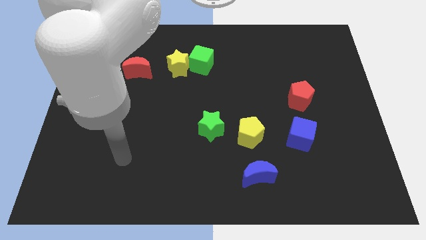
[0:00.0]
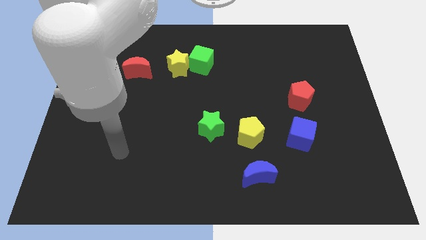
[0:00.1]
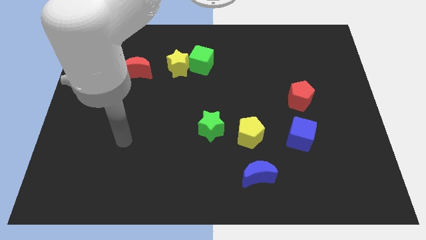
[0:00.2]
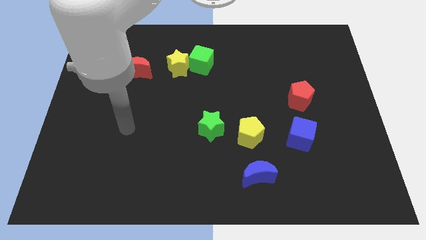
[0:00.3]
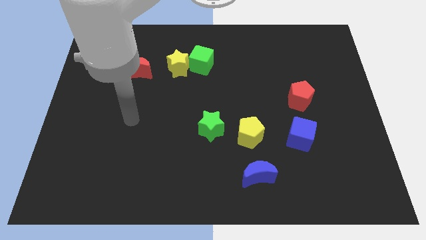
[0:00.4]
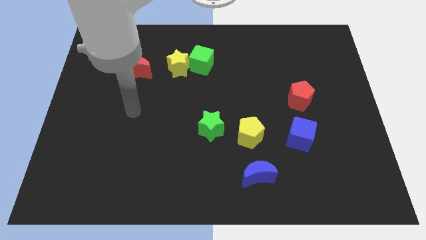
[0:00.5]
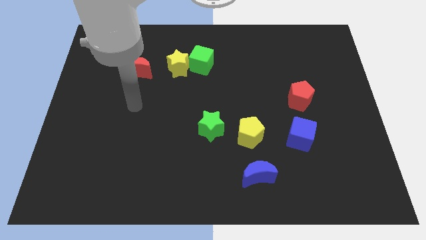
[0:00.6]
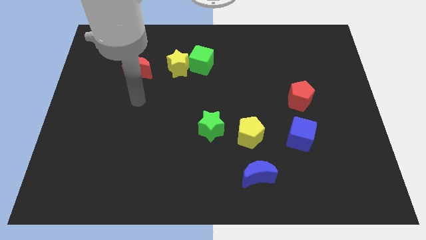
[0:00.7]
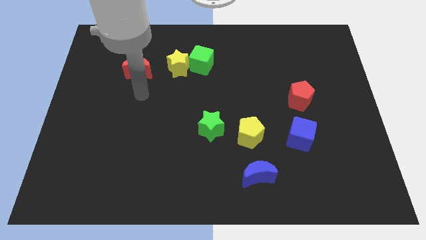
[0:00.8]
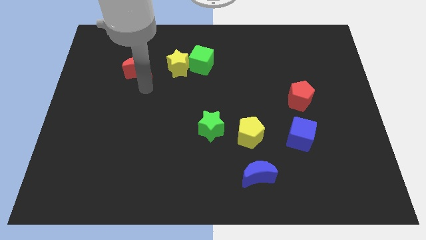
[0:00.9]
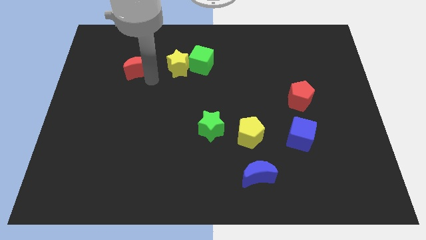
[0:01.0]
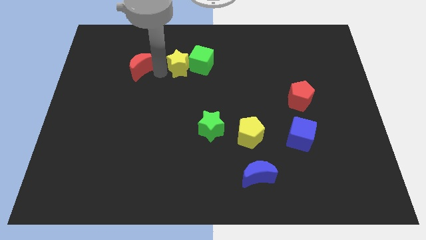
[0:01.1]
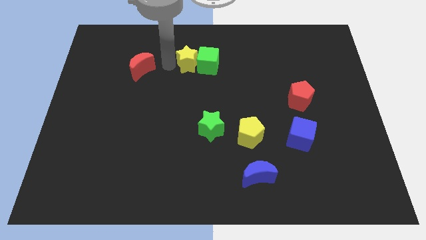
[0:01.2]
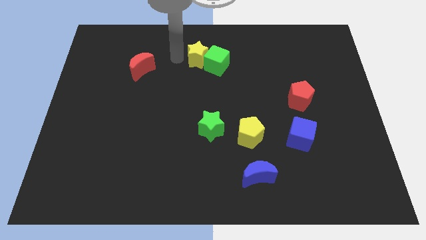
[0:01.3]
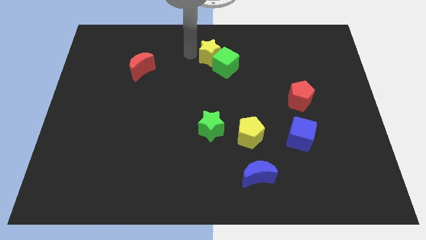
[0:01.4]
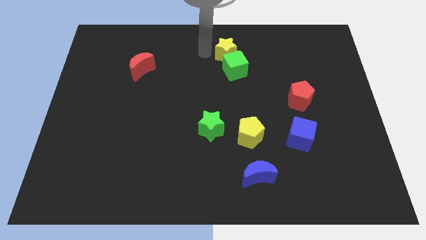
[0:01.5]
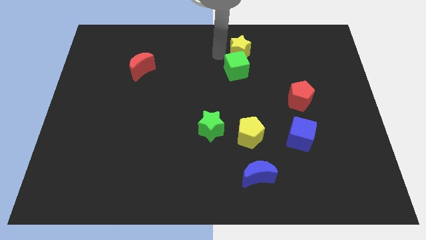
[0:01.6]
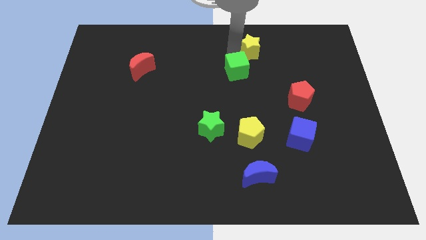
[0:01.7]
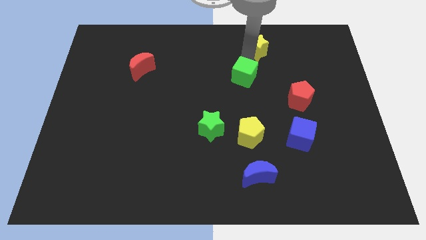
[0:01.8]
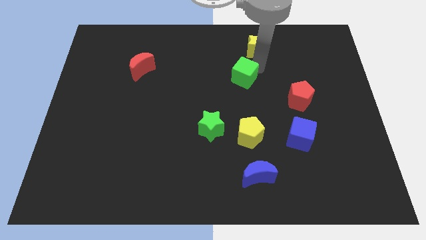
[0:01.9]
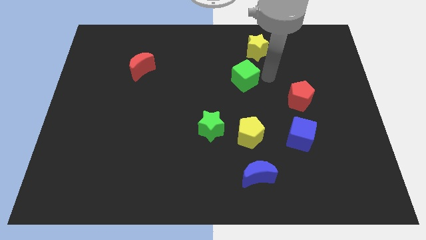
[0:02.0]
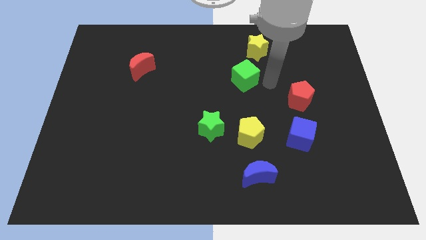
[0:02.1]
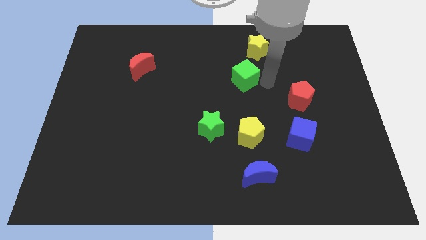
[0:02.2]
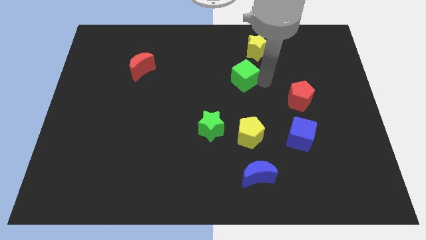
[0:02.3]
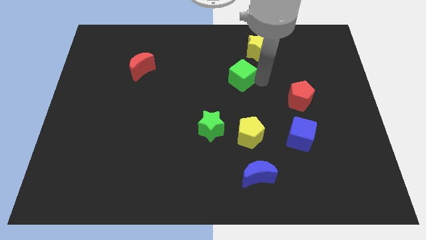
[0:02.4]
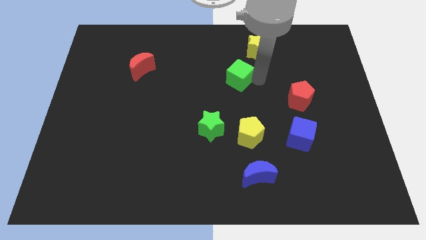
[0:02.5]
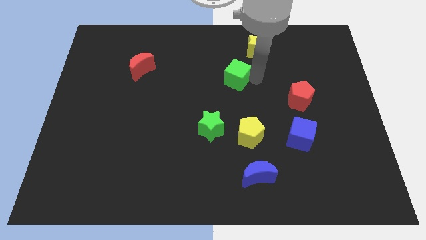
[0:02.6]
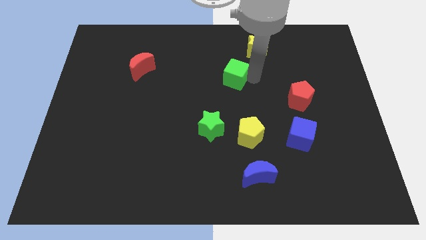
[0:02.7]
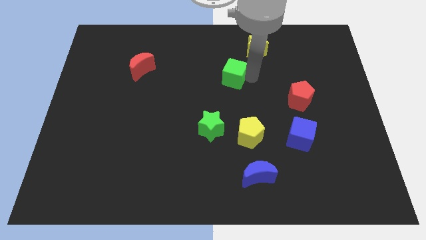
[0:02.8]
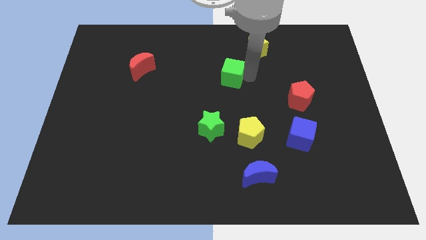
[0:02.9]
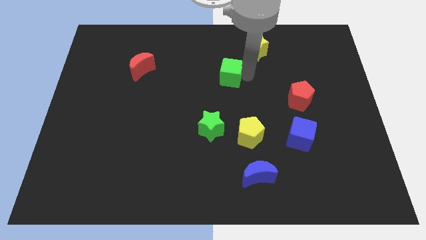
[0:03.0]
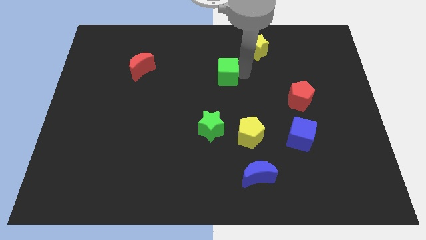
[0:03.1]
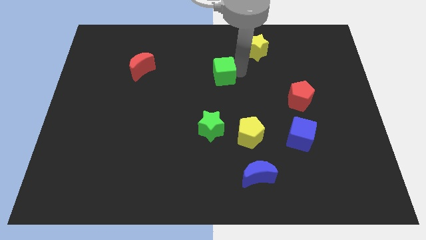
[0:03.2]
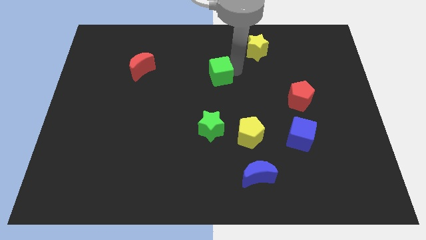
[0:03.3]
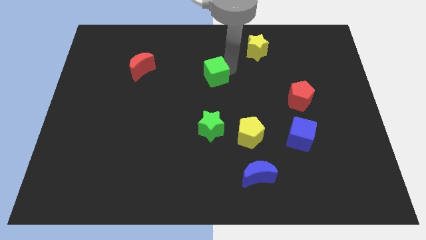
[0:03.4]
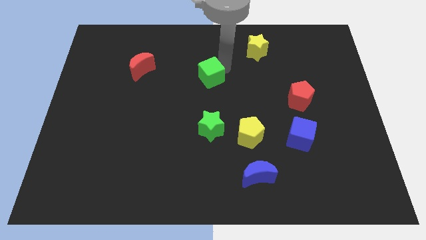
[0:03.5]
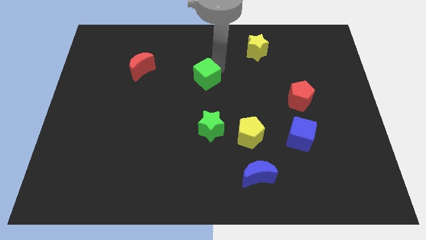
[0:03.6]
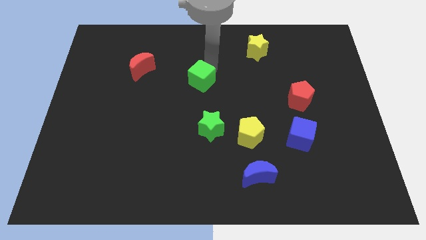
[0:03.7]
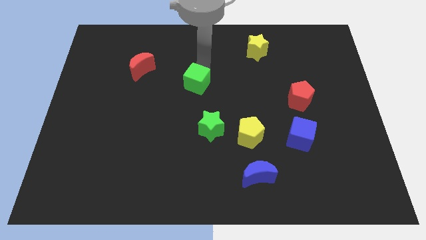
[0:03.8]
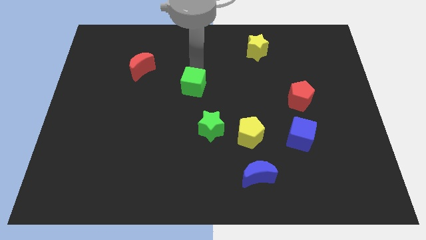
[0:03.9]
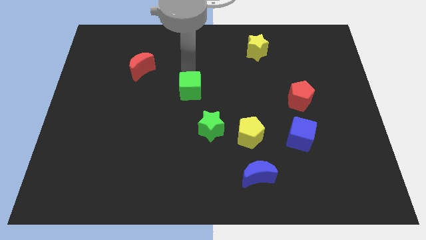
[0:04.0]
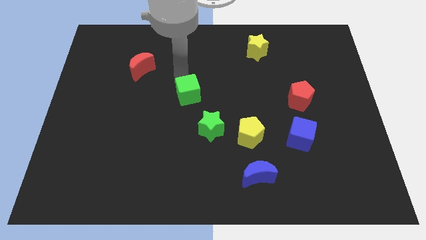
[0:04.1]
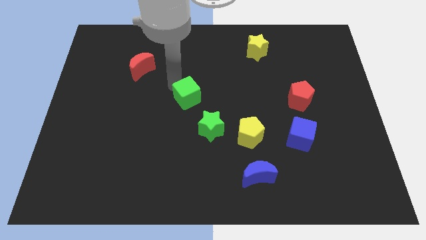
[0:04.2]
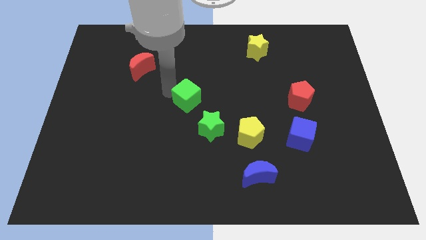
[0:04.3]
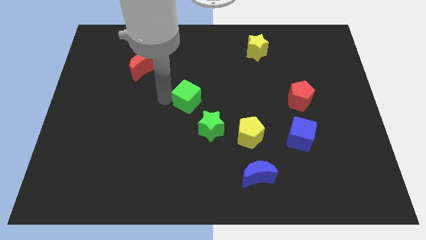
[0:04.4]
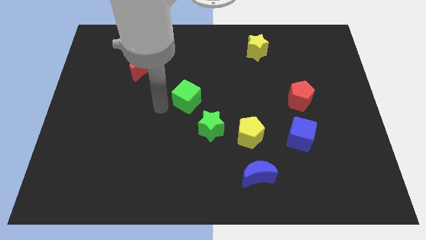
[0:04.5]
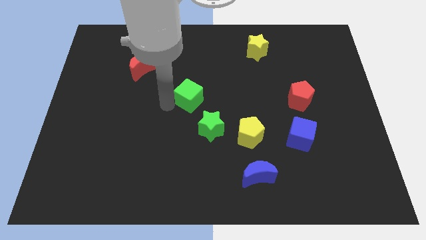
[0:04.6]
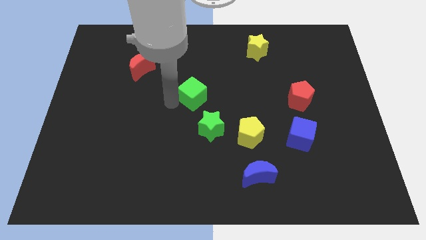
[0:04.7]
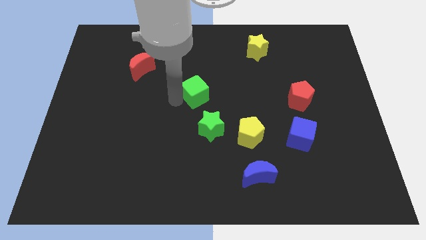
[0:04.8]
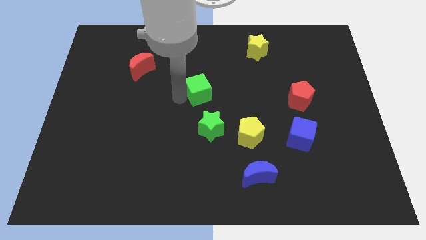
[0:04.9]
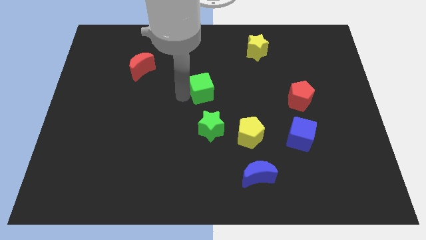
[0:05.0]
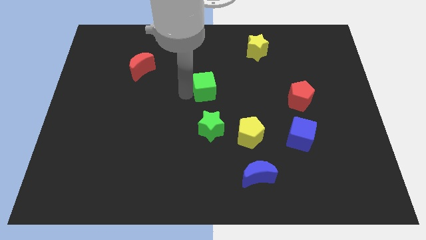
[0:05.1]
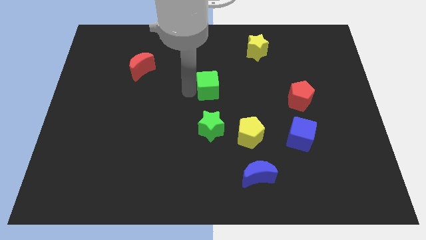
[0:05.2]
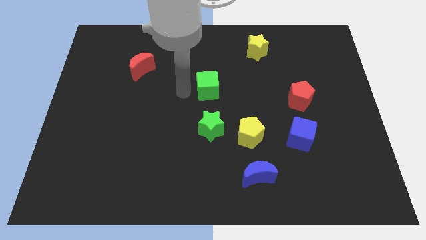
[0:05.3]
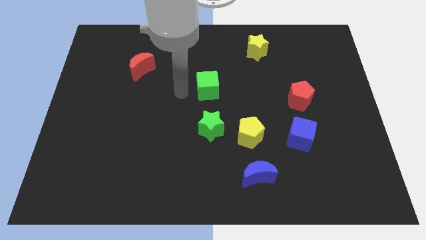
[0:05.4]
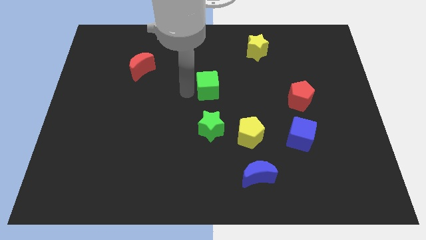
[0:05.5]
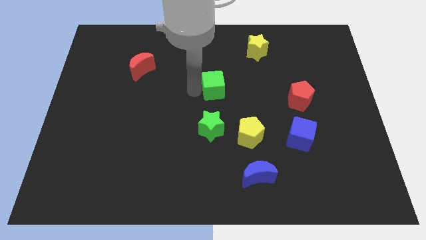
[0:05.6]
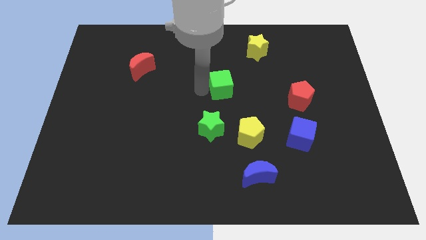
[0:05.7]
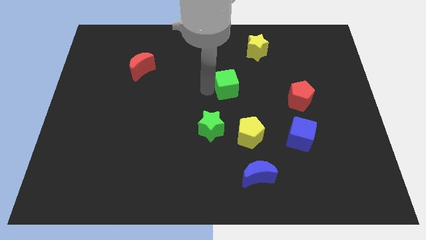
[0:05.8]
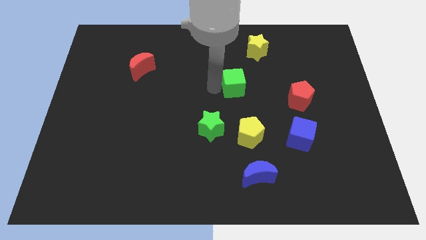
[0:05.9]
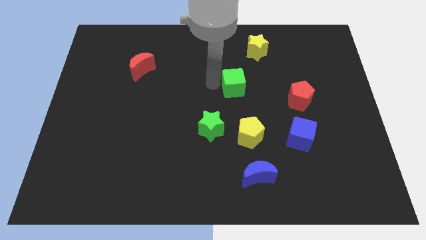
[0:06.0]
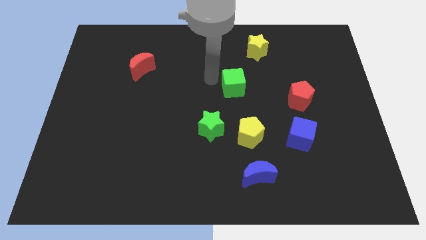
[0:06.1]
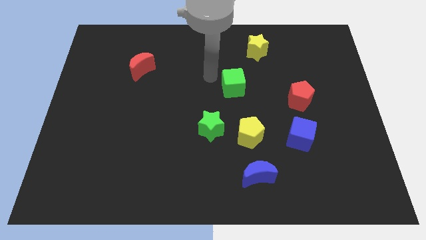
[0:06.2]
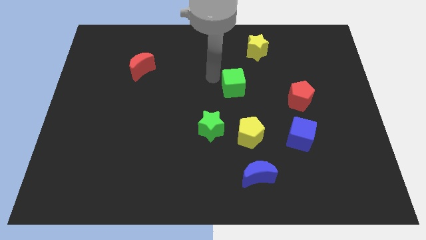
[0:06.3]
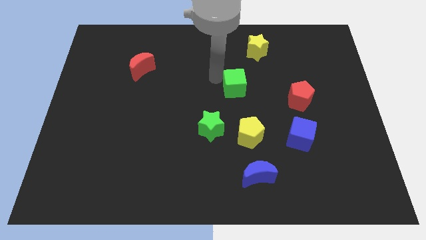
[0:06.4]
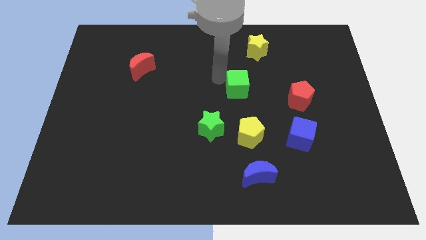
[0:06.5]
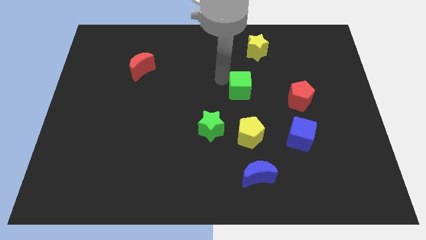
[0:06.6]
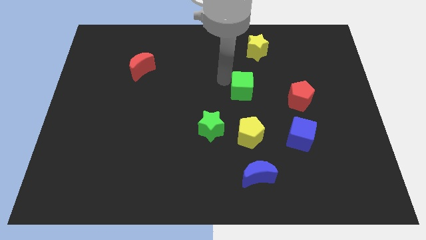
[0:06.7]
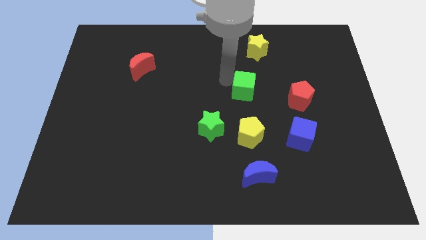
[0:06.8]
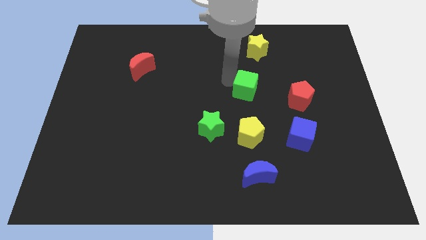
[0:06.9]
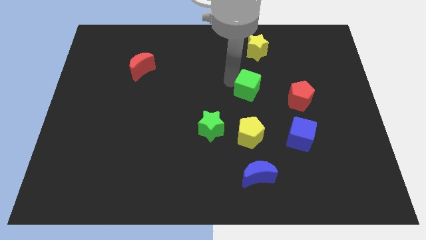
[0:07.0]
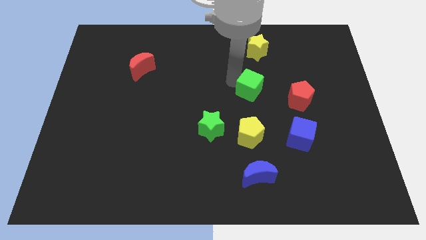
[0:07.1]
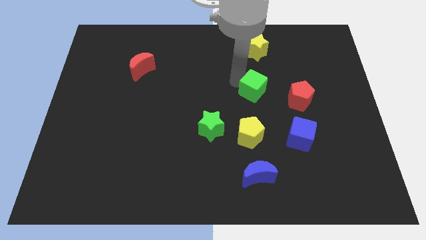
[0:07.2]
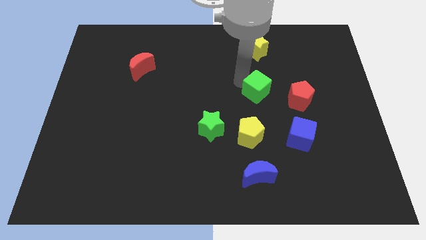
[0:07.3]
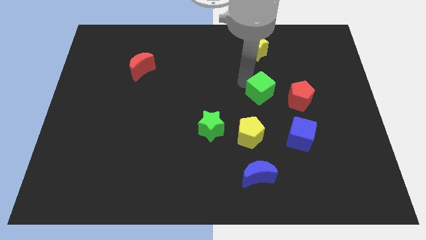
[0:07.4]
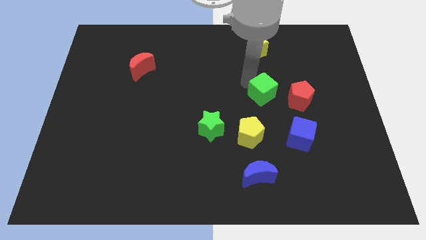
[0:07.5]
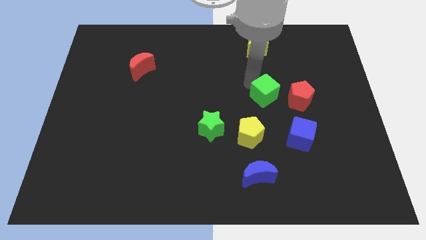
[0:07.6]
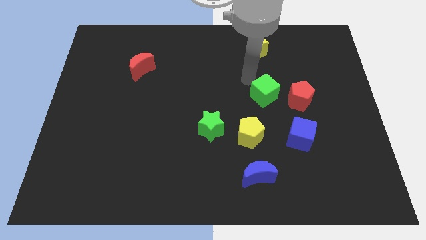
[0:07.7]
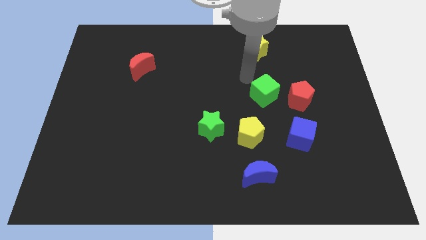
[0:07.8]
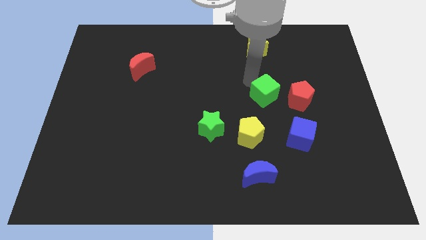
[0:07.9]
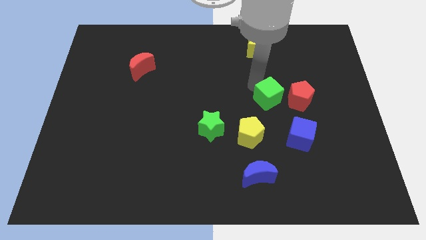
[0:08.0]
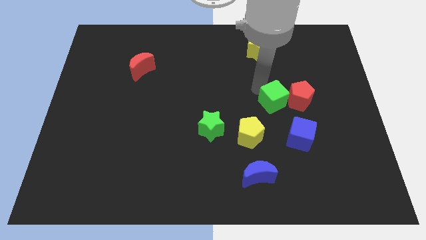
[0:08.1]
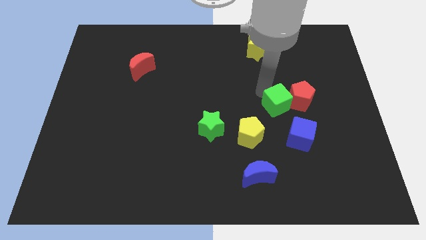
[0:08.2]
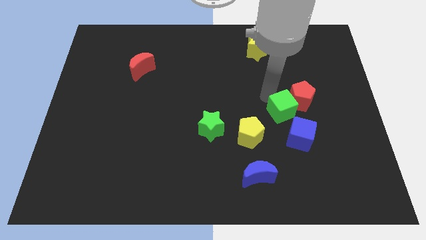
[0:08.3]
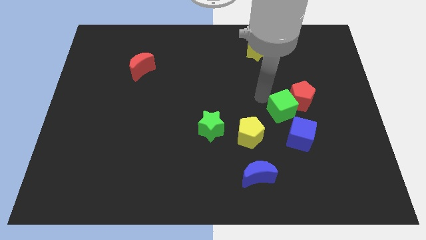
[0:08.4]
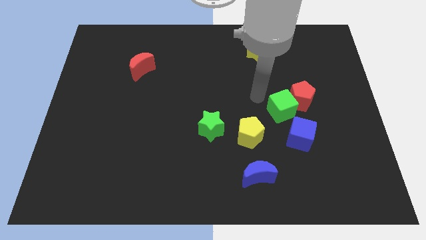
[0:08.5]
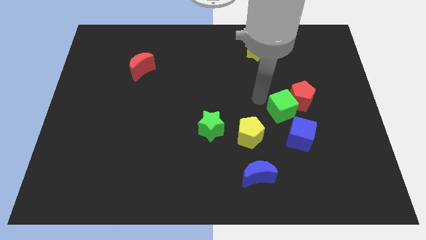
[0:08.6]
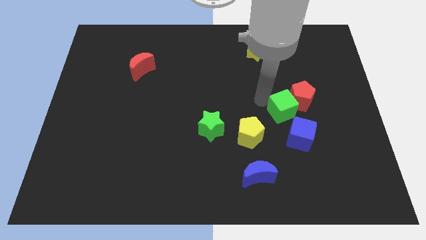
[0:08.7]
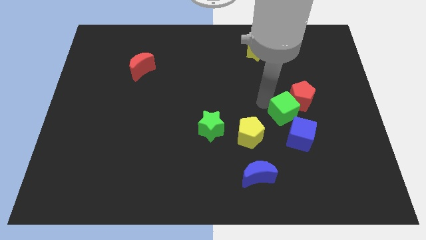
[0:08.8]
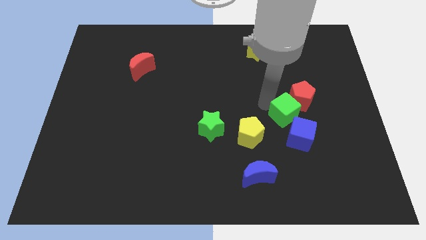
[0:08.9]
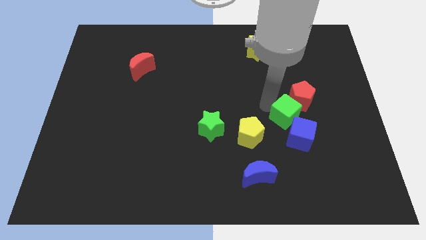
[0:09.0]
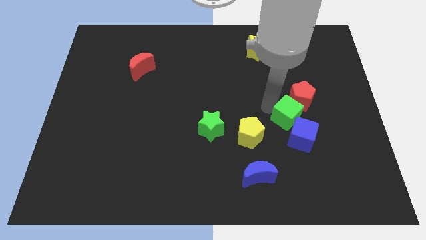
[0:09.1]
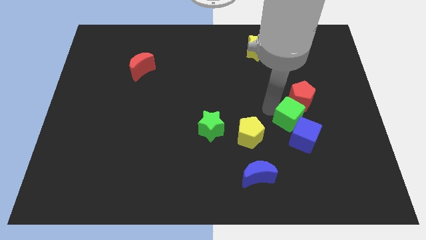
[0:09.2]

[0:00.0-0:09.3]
put the green cube to the right side of the yellow pentagon
